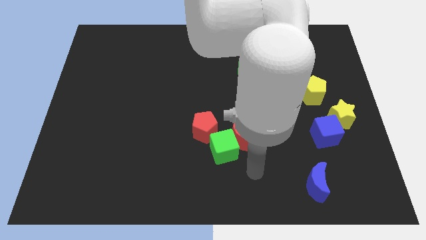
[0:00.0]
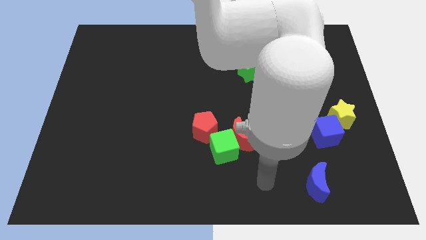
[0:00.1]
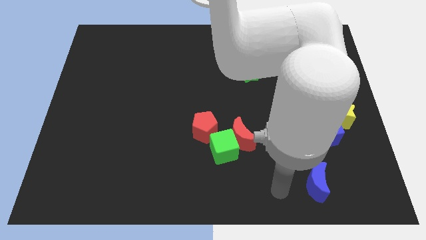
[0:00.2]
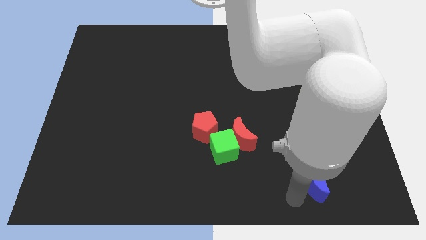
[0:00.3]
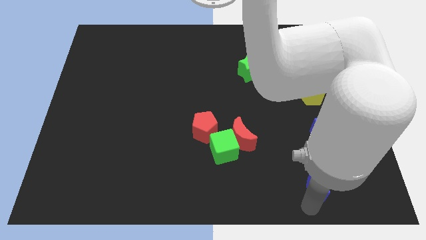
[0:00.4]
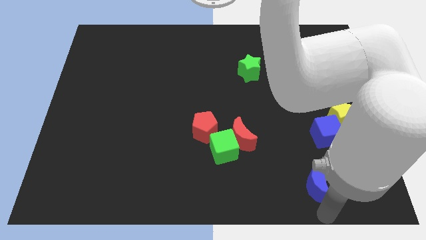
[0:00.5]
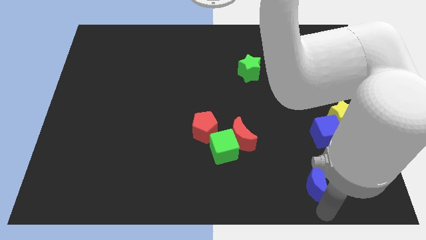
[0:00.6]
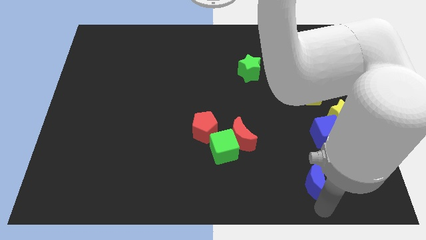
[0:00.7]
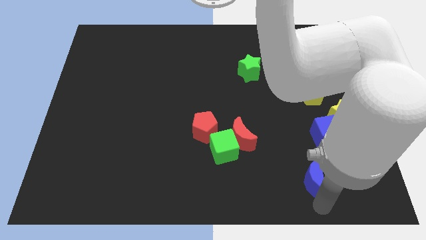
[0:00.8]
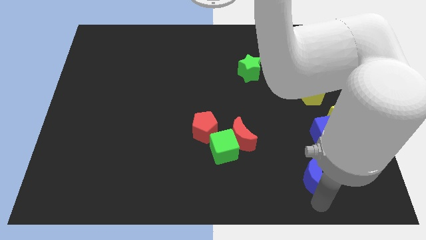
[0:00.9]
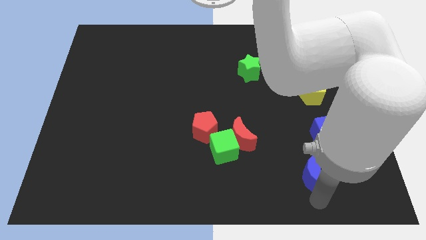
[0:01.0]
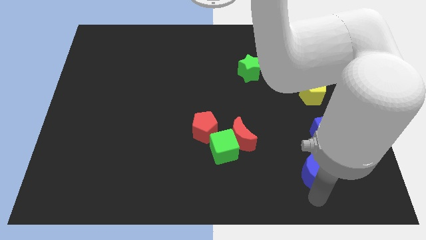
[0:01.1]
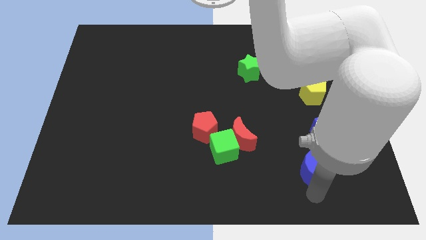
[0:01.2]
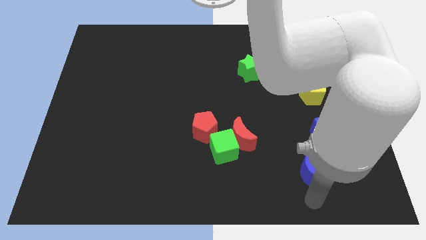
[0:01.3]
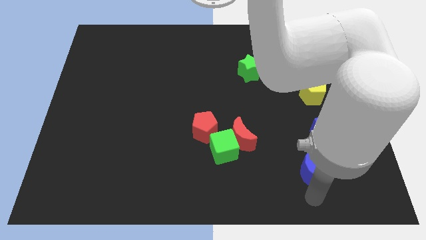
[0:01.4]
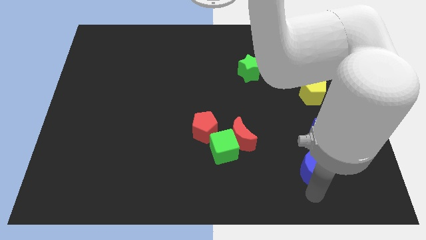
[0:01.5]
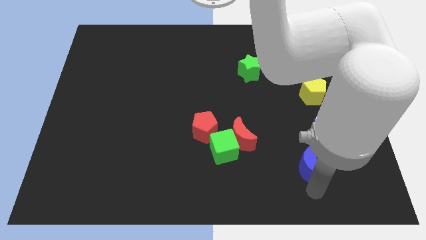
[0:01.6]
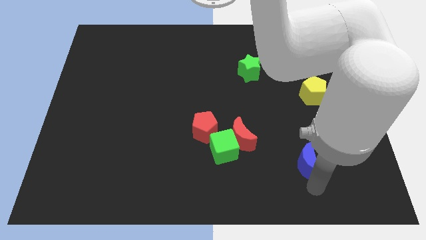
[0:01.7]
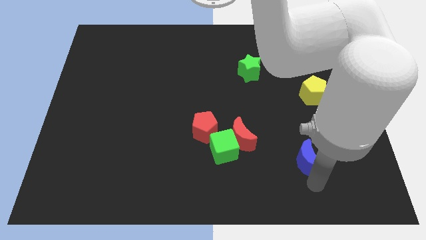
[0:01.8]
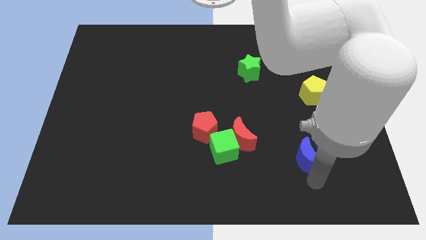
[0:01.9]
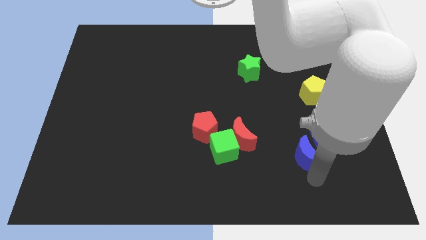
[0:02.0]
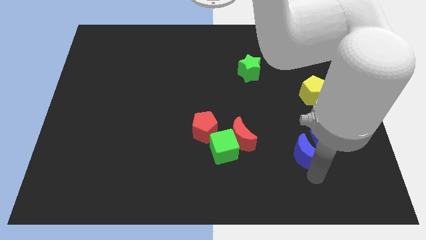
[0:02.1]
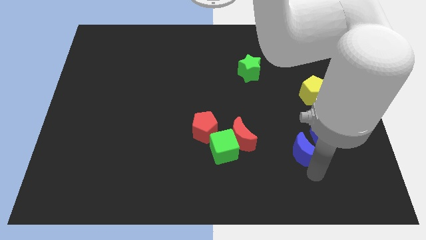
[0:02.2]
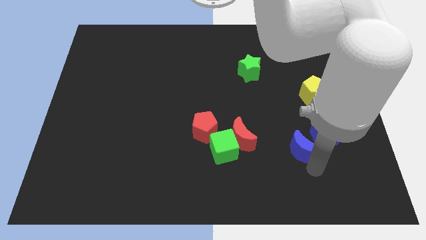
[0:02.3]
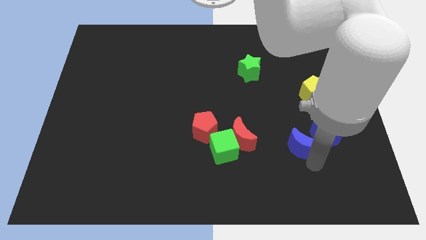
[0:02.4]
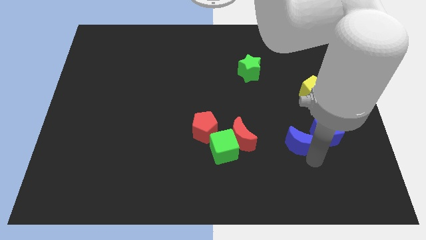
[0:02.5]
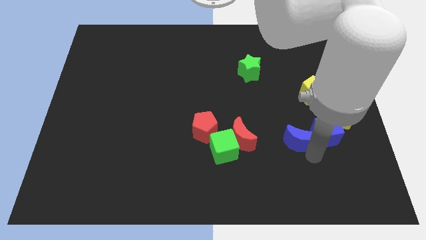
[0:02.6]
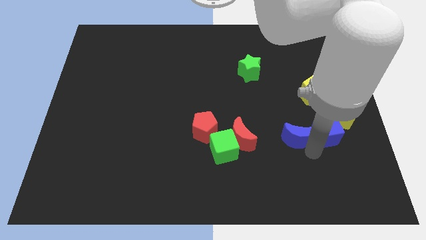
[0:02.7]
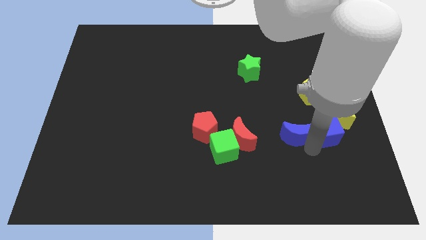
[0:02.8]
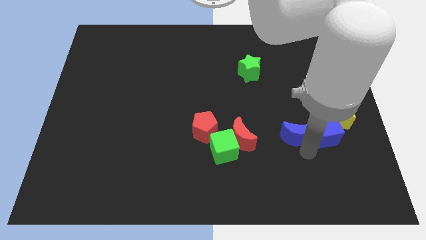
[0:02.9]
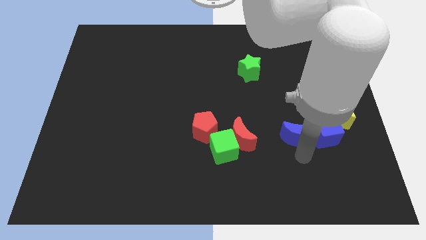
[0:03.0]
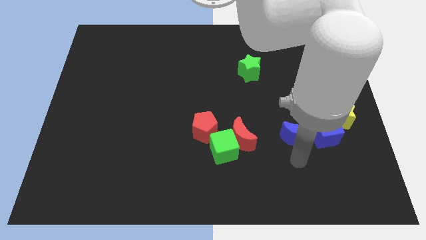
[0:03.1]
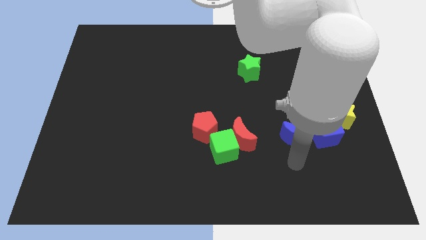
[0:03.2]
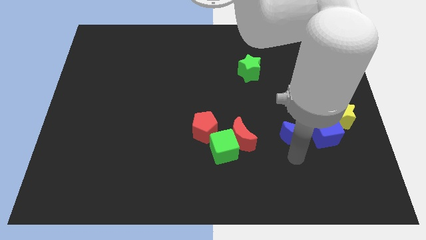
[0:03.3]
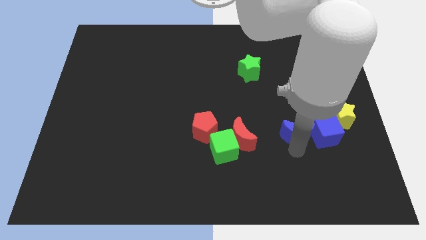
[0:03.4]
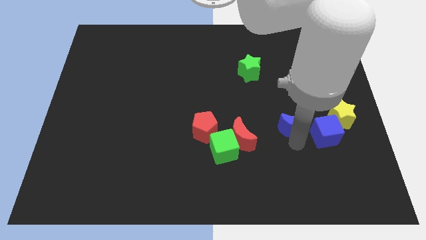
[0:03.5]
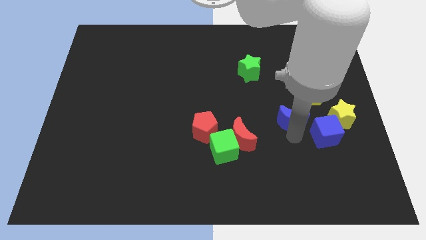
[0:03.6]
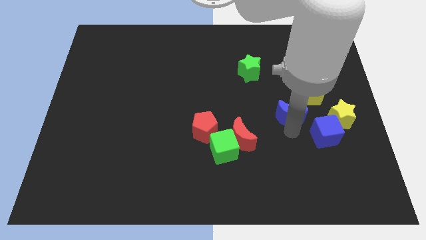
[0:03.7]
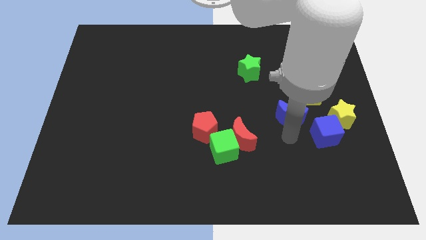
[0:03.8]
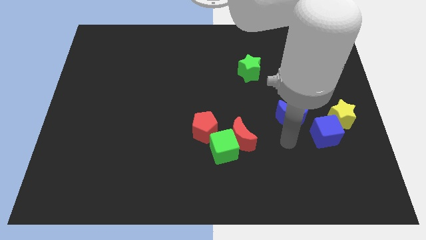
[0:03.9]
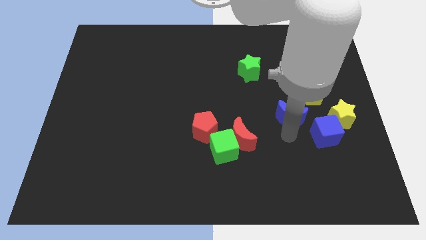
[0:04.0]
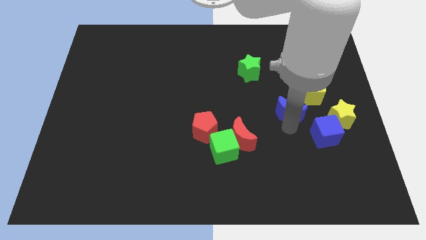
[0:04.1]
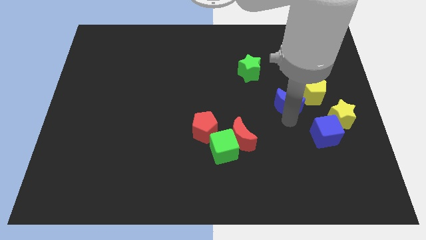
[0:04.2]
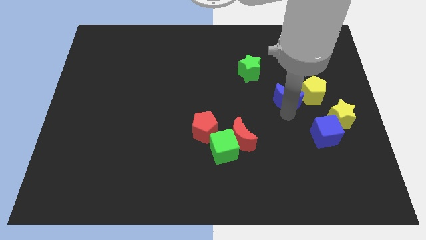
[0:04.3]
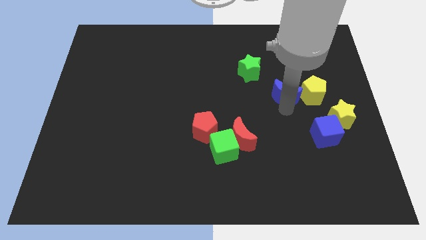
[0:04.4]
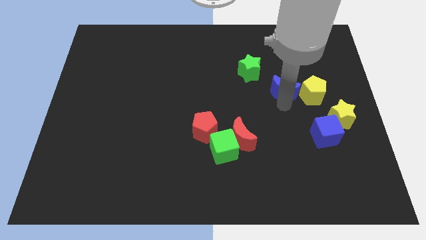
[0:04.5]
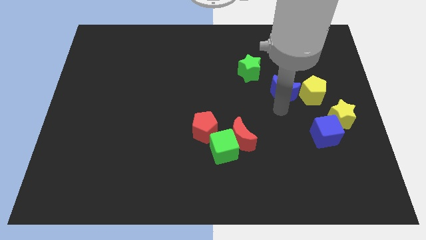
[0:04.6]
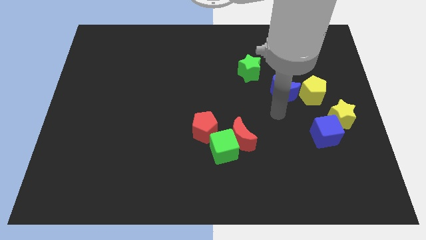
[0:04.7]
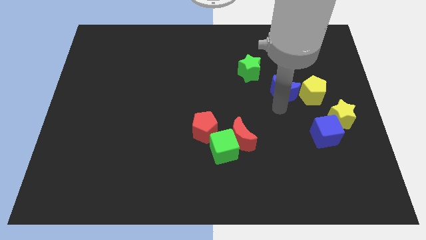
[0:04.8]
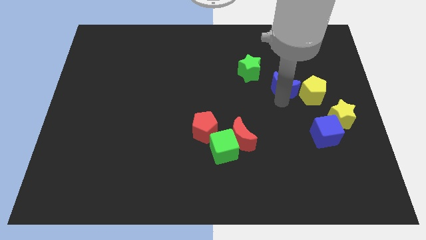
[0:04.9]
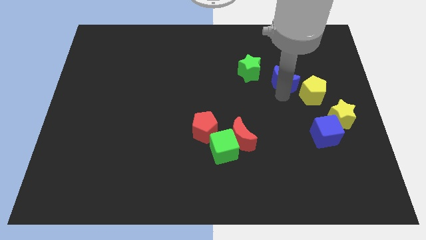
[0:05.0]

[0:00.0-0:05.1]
push the blue moon to the right side of the green star

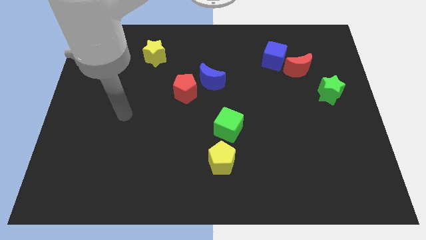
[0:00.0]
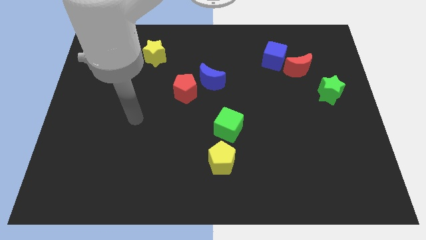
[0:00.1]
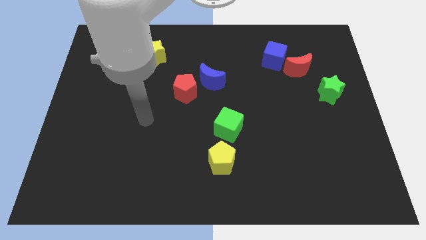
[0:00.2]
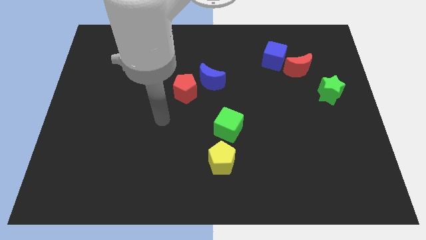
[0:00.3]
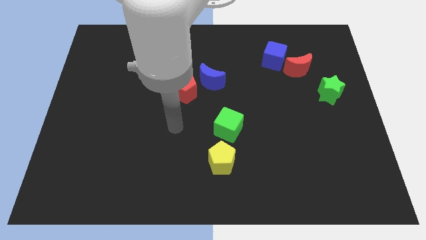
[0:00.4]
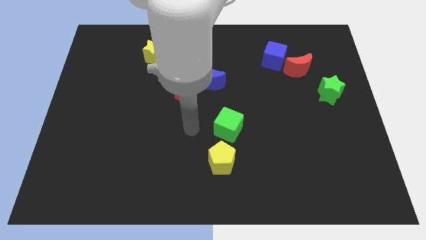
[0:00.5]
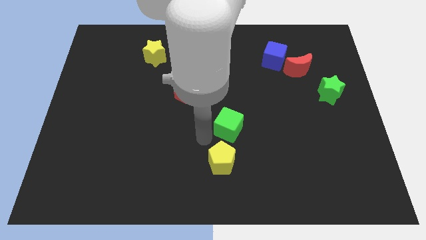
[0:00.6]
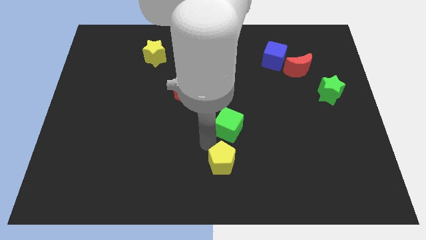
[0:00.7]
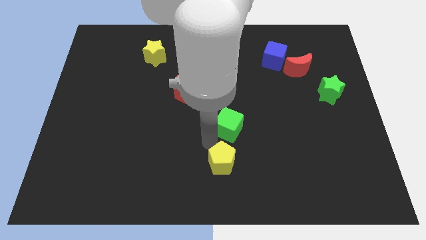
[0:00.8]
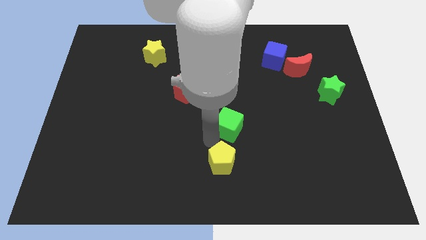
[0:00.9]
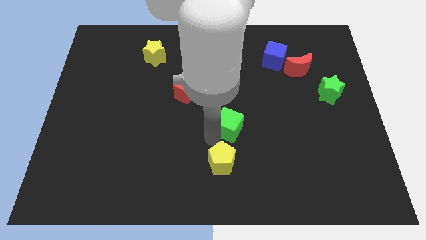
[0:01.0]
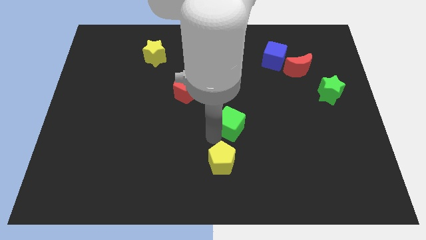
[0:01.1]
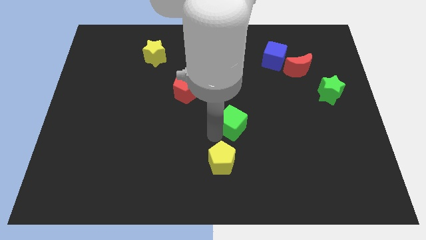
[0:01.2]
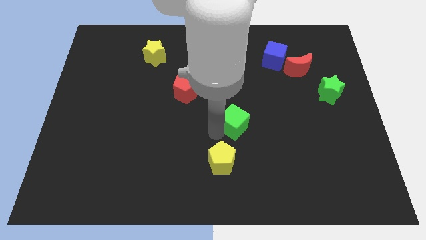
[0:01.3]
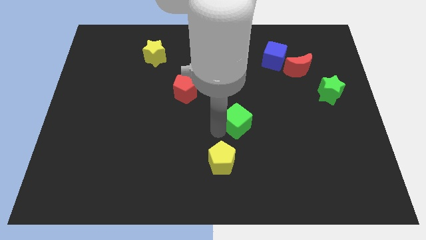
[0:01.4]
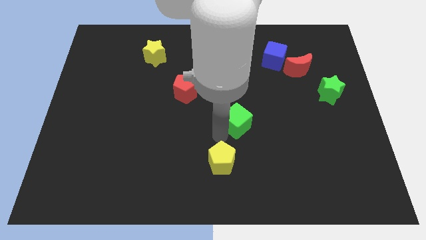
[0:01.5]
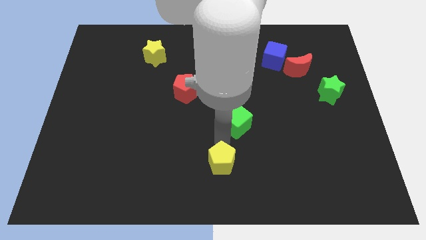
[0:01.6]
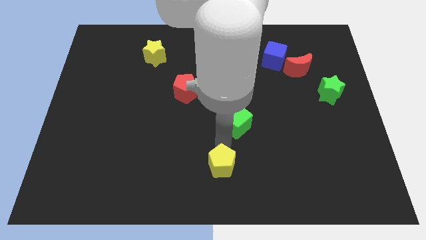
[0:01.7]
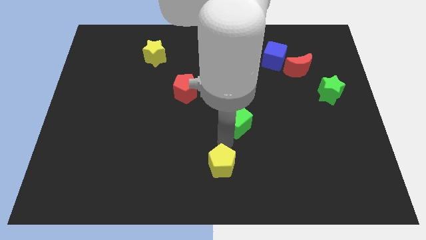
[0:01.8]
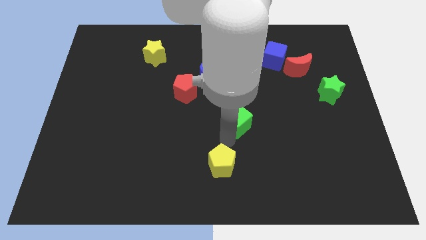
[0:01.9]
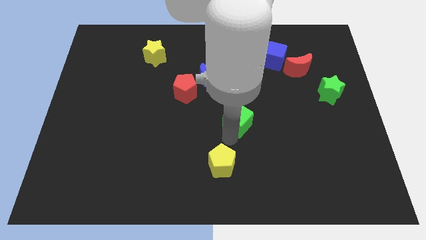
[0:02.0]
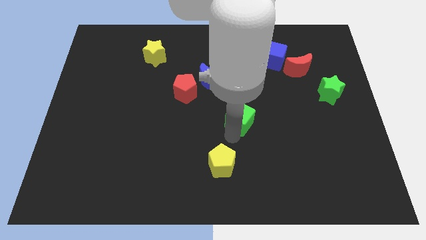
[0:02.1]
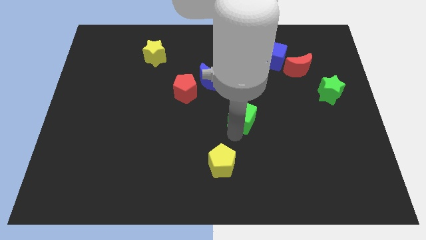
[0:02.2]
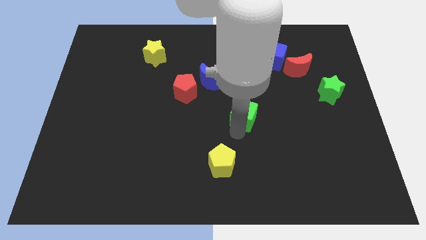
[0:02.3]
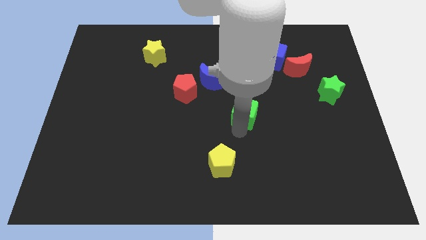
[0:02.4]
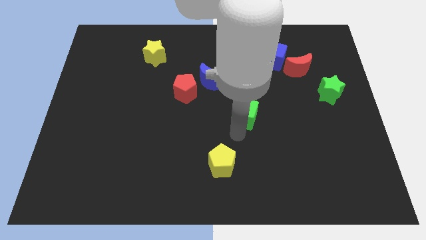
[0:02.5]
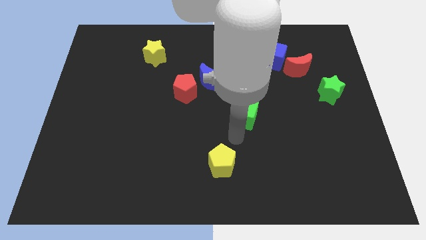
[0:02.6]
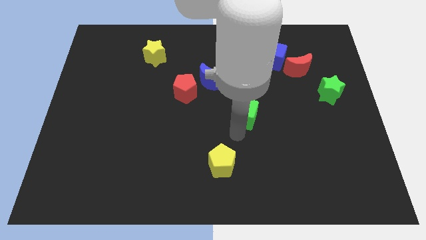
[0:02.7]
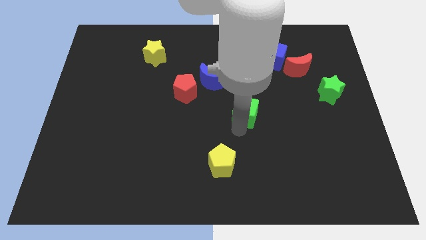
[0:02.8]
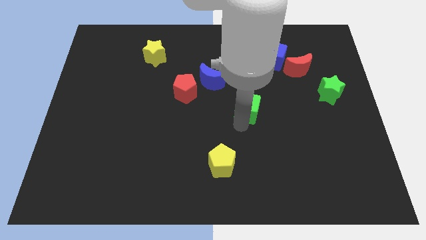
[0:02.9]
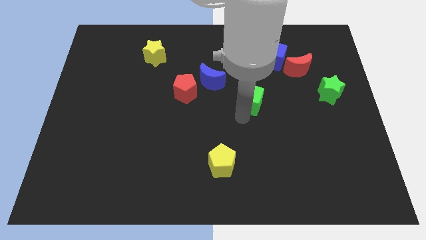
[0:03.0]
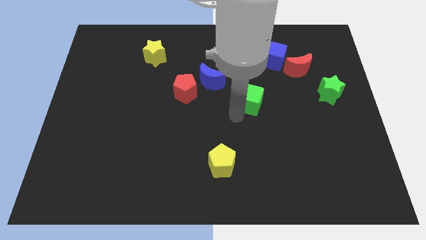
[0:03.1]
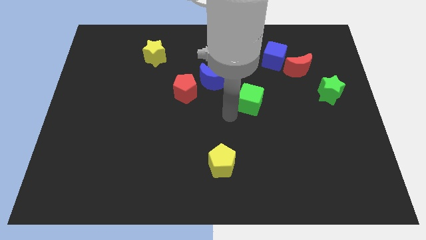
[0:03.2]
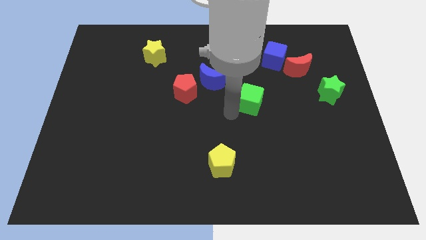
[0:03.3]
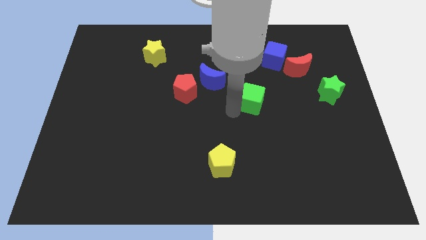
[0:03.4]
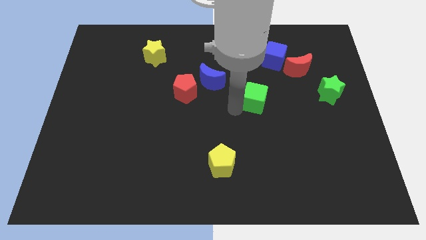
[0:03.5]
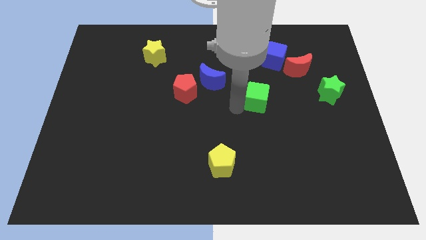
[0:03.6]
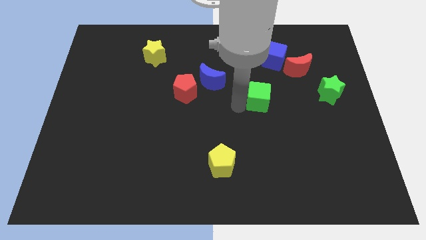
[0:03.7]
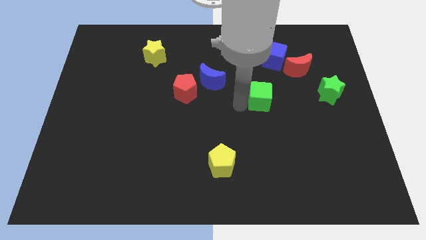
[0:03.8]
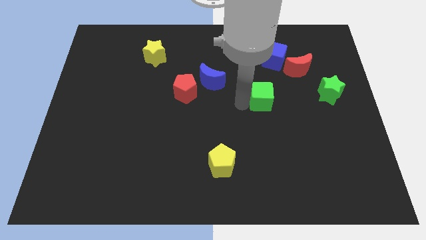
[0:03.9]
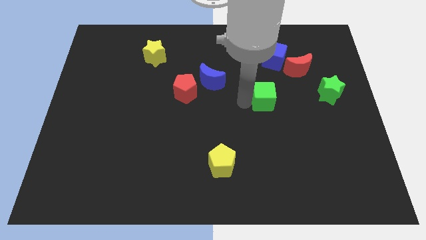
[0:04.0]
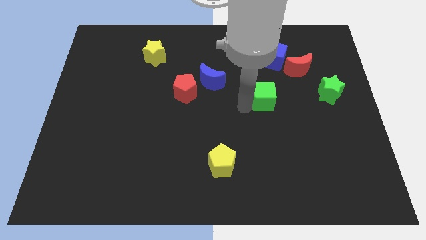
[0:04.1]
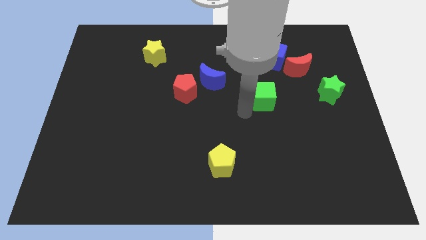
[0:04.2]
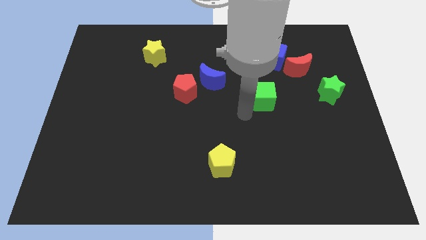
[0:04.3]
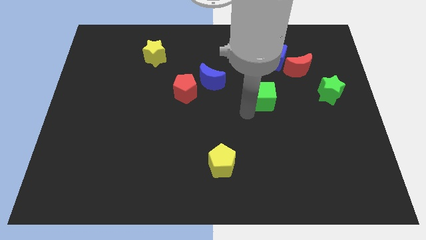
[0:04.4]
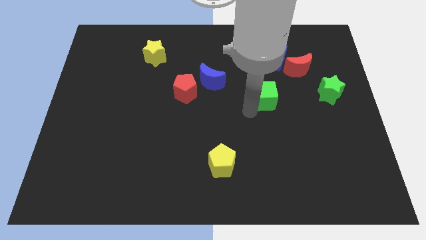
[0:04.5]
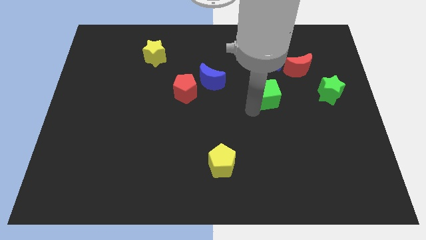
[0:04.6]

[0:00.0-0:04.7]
move the green cube to the bottom left of the red moon
